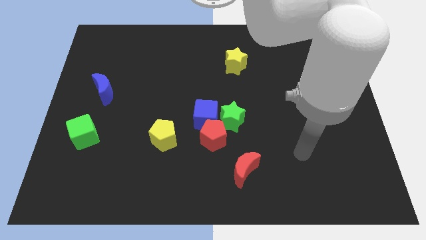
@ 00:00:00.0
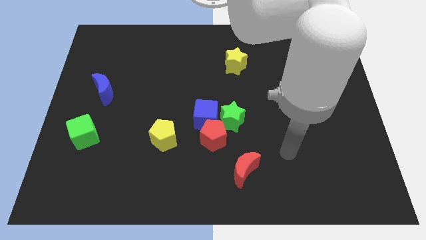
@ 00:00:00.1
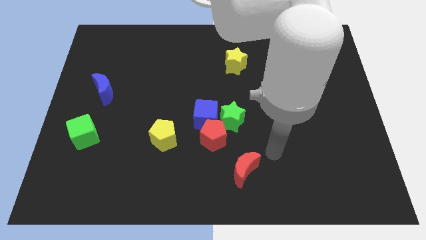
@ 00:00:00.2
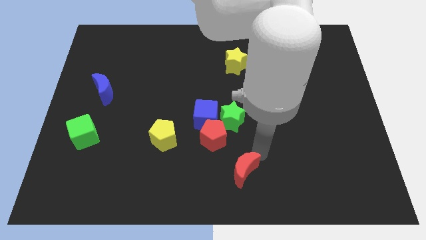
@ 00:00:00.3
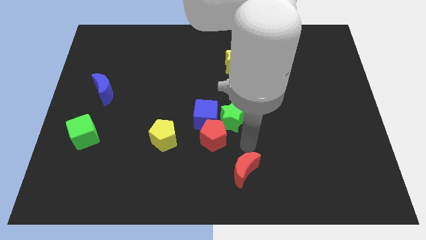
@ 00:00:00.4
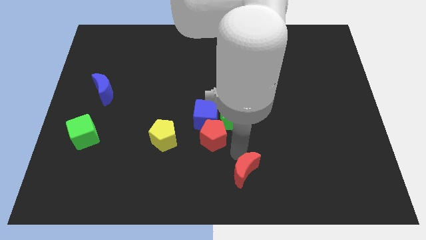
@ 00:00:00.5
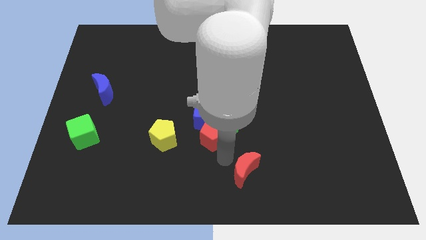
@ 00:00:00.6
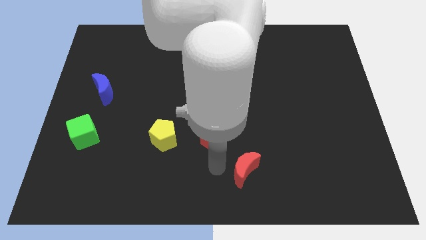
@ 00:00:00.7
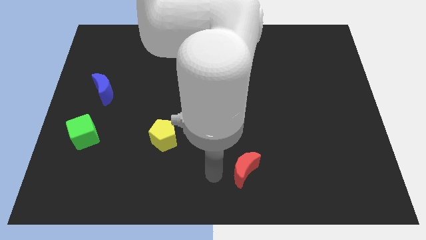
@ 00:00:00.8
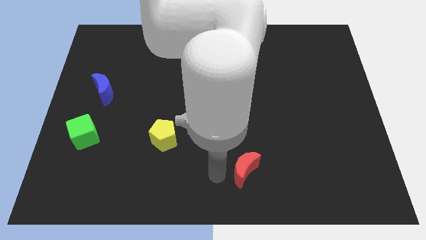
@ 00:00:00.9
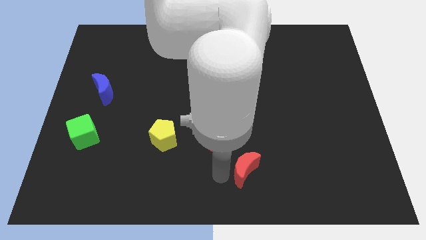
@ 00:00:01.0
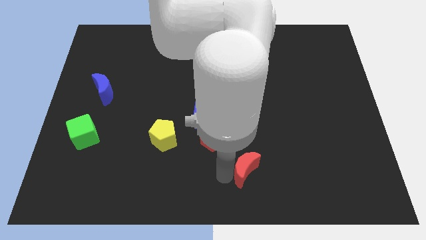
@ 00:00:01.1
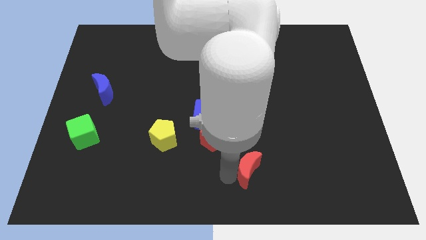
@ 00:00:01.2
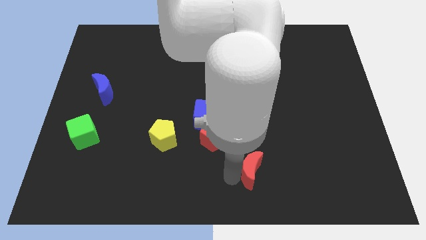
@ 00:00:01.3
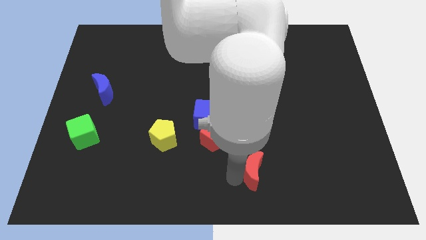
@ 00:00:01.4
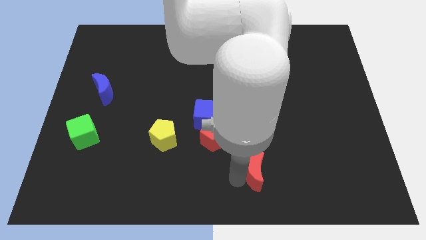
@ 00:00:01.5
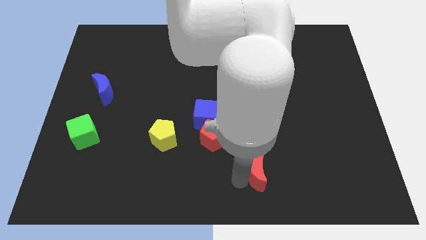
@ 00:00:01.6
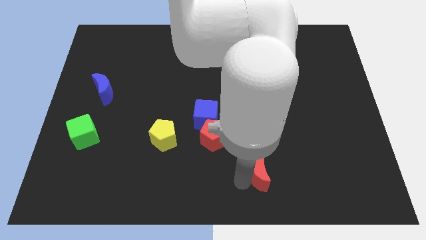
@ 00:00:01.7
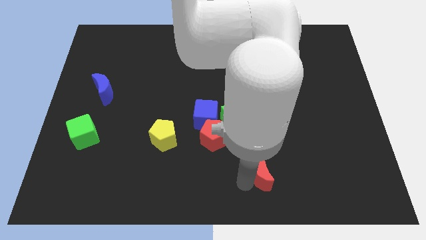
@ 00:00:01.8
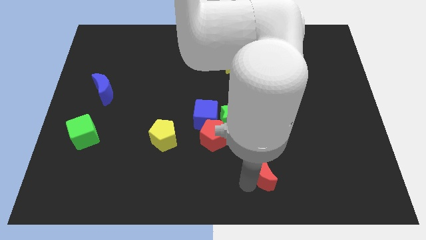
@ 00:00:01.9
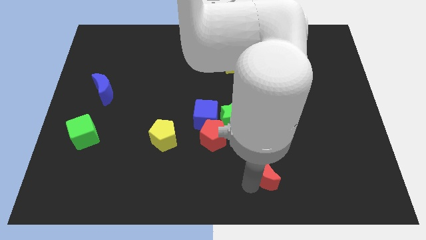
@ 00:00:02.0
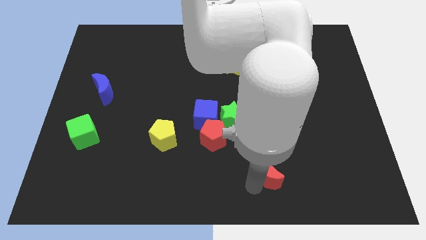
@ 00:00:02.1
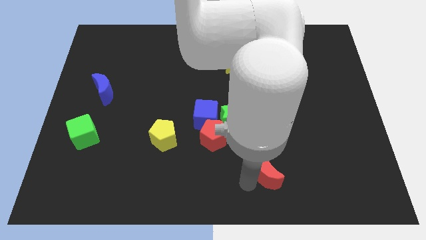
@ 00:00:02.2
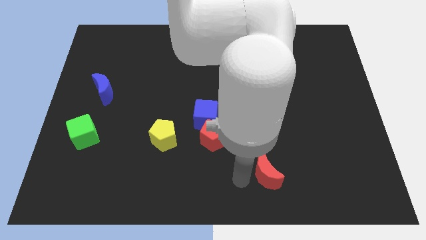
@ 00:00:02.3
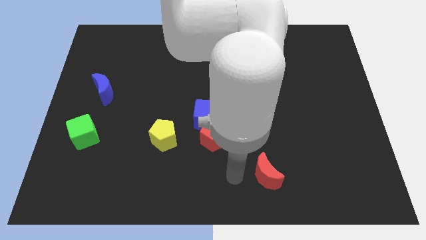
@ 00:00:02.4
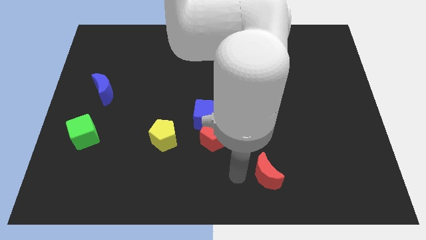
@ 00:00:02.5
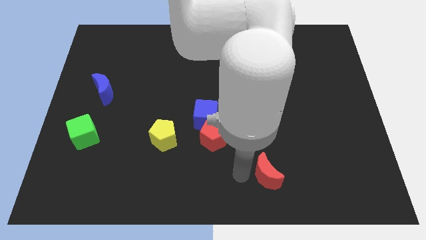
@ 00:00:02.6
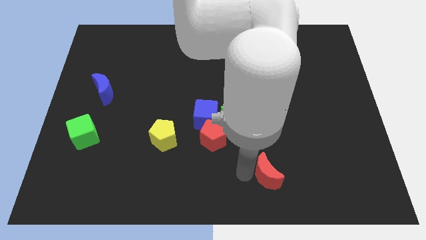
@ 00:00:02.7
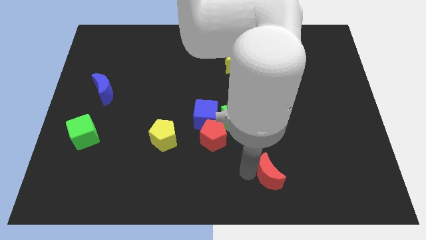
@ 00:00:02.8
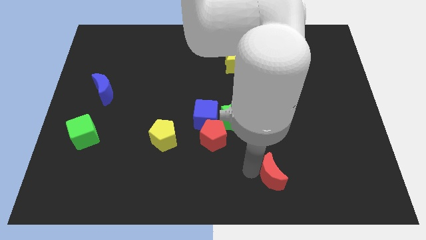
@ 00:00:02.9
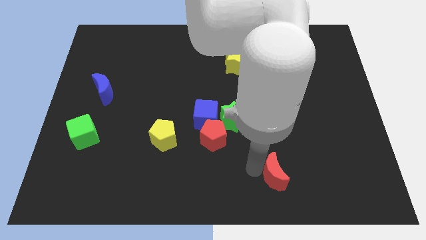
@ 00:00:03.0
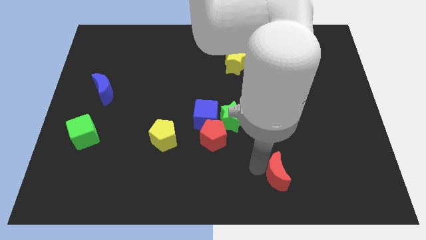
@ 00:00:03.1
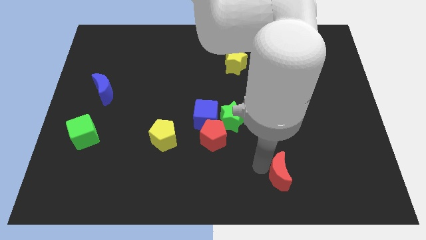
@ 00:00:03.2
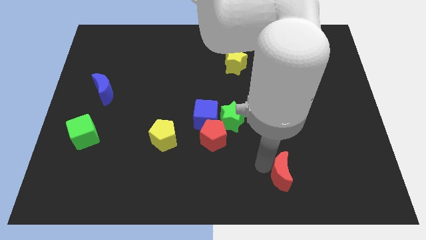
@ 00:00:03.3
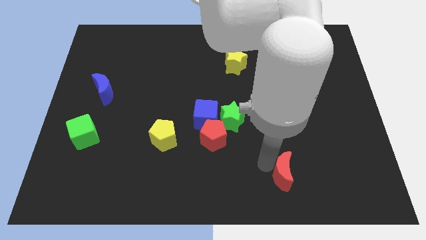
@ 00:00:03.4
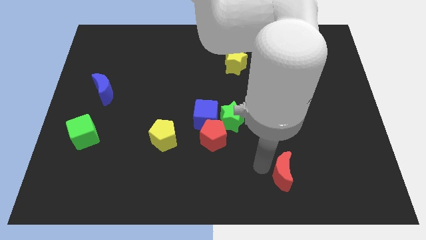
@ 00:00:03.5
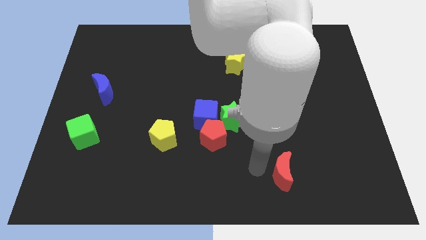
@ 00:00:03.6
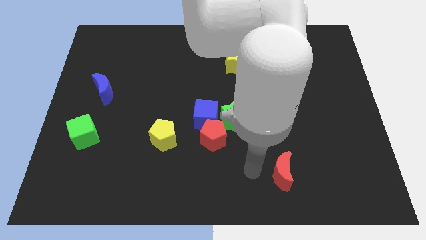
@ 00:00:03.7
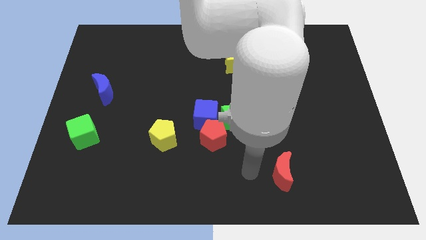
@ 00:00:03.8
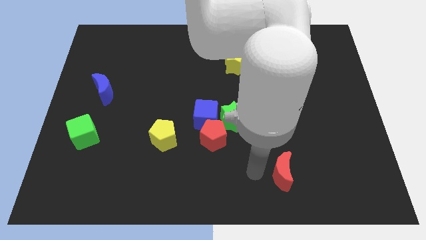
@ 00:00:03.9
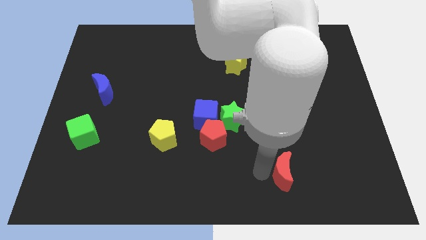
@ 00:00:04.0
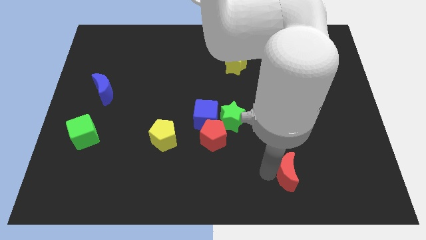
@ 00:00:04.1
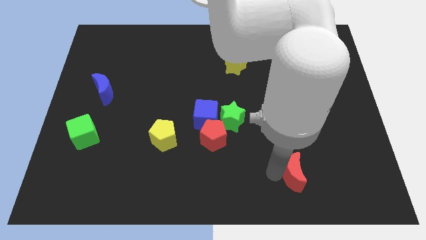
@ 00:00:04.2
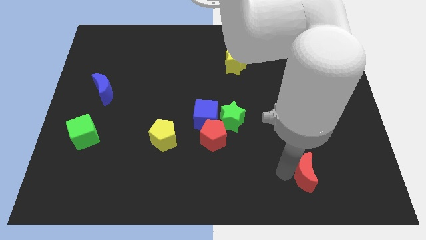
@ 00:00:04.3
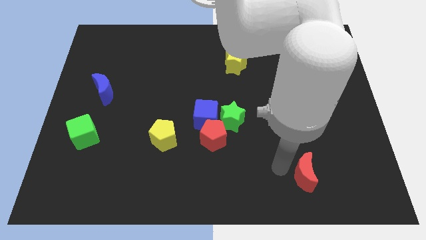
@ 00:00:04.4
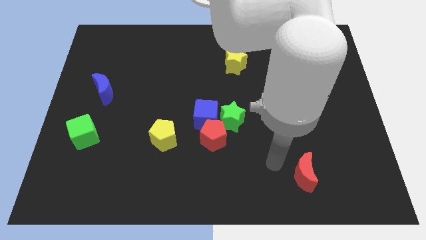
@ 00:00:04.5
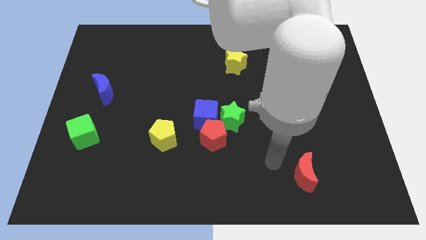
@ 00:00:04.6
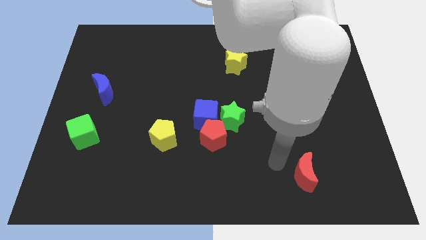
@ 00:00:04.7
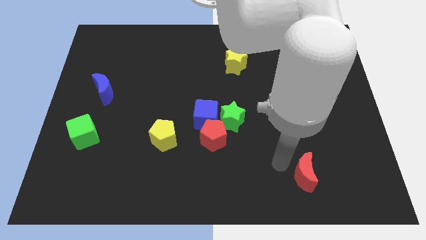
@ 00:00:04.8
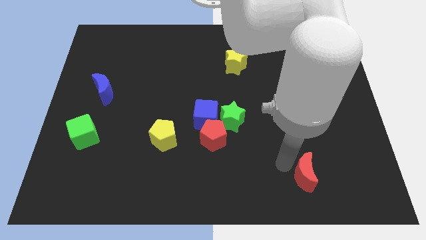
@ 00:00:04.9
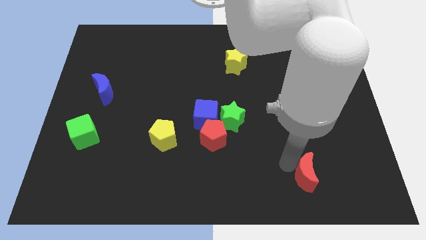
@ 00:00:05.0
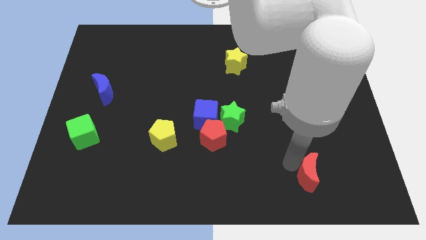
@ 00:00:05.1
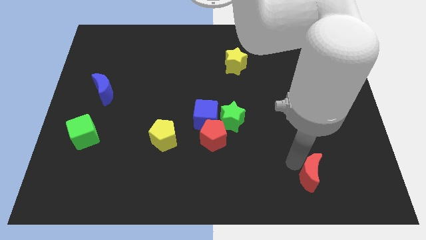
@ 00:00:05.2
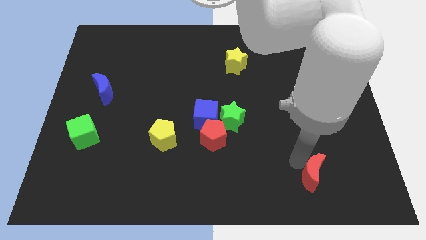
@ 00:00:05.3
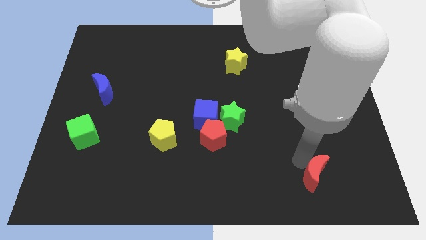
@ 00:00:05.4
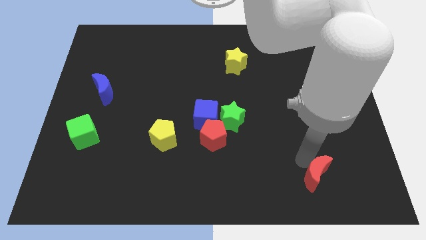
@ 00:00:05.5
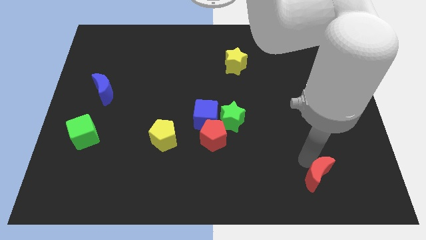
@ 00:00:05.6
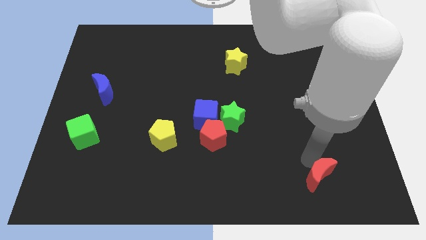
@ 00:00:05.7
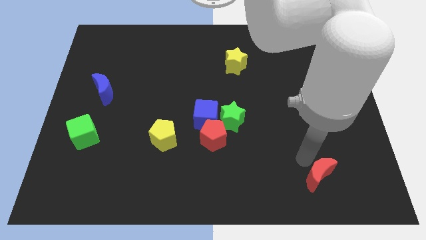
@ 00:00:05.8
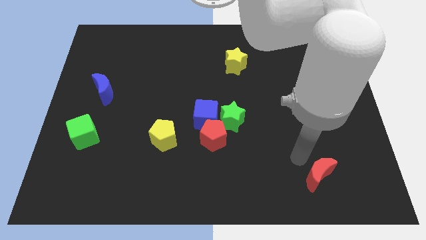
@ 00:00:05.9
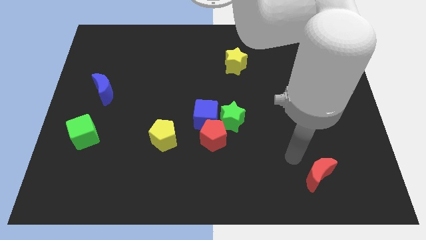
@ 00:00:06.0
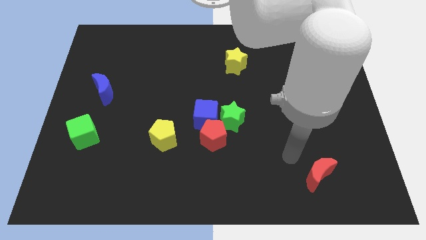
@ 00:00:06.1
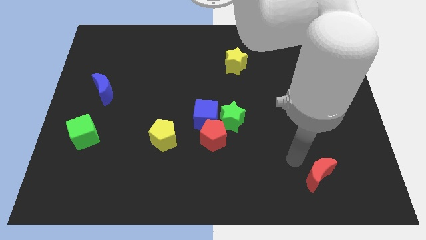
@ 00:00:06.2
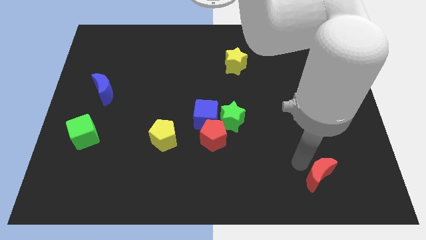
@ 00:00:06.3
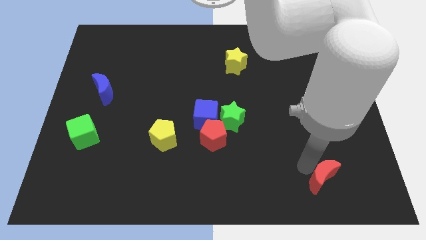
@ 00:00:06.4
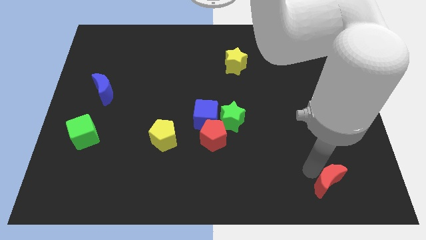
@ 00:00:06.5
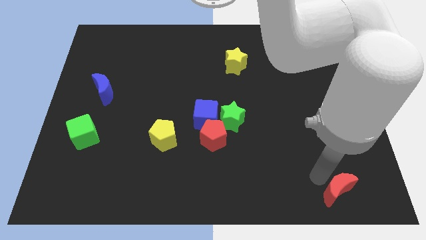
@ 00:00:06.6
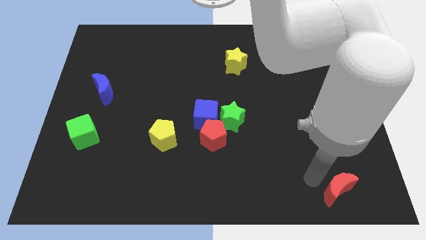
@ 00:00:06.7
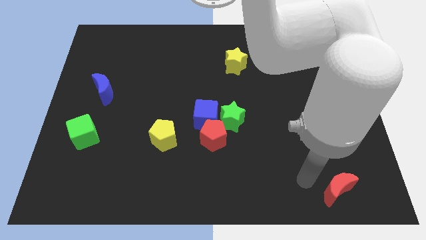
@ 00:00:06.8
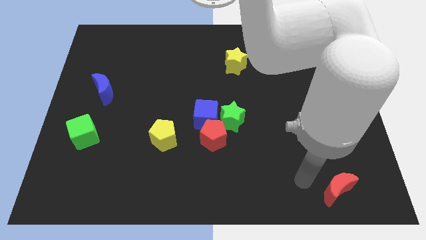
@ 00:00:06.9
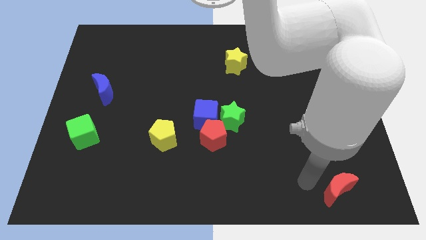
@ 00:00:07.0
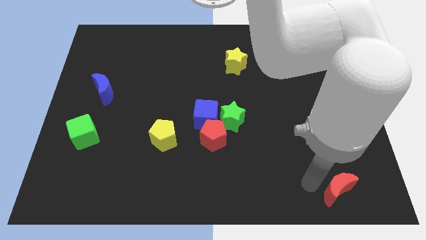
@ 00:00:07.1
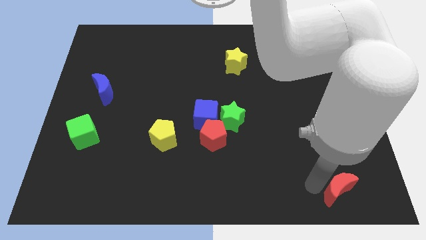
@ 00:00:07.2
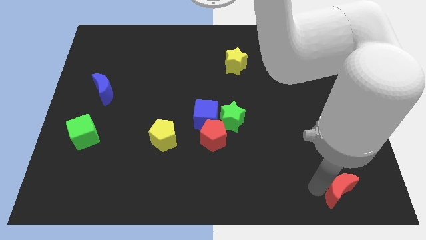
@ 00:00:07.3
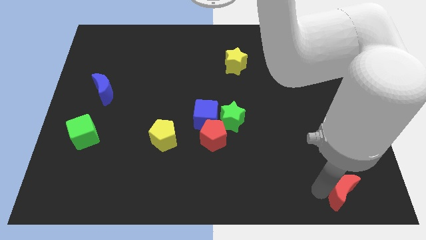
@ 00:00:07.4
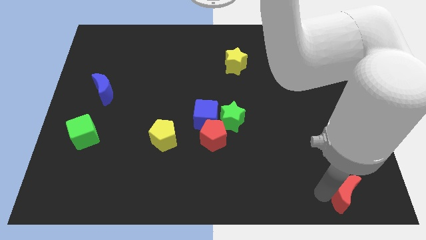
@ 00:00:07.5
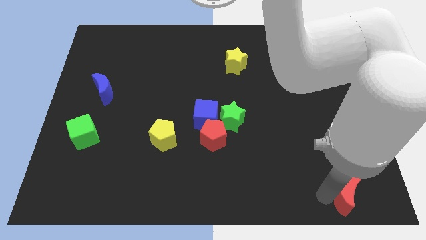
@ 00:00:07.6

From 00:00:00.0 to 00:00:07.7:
put the red moon to the bottom right of the board
